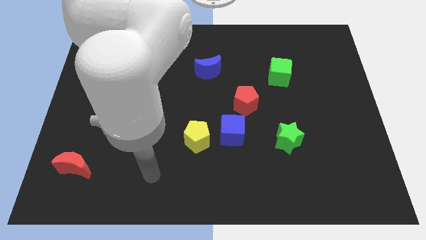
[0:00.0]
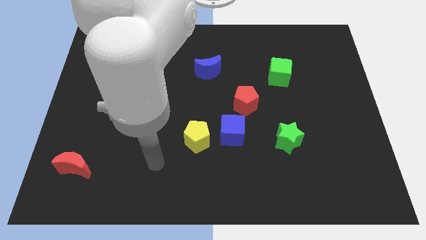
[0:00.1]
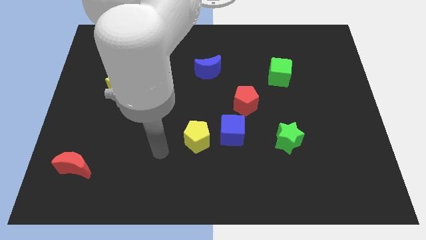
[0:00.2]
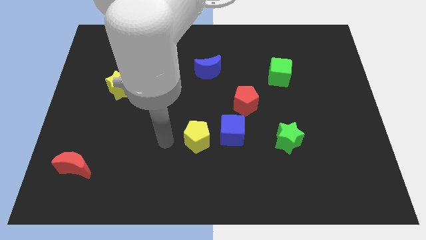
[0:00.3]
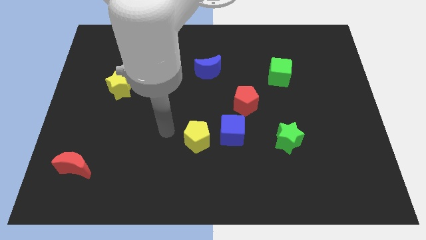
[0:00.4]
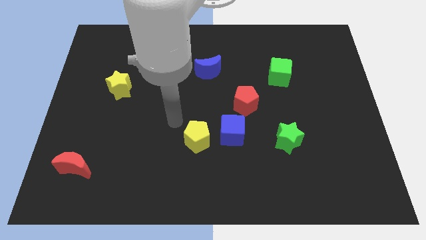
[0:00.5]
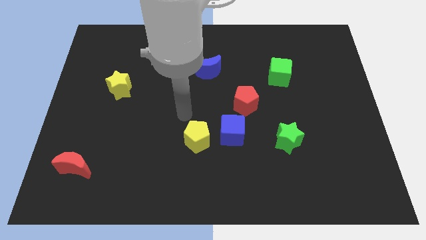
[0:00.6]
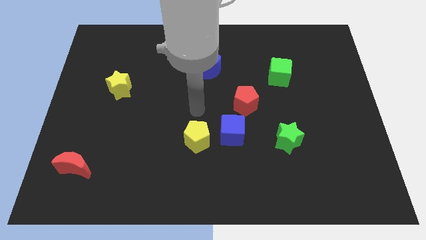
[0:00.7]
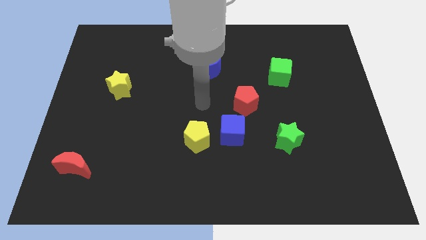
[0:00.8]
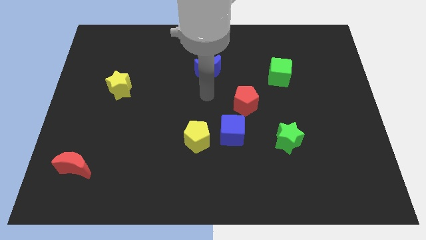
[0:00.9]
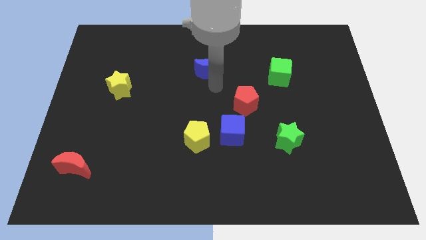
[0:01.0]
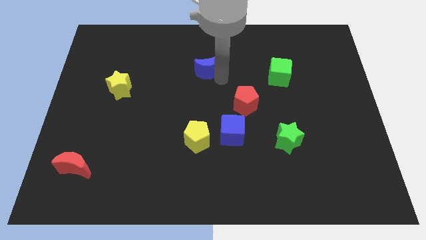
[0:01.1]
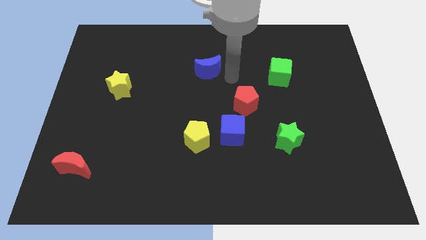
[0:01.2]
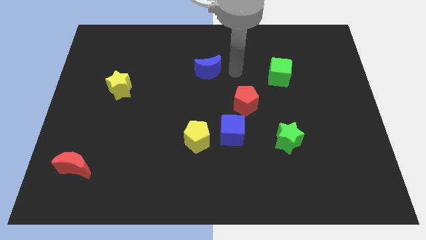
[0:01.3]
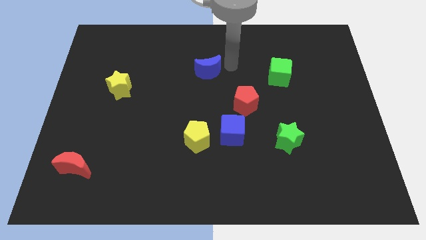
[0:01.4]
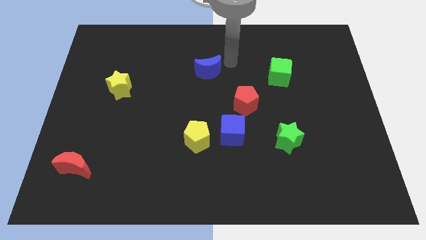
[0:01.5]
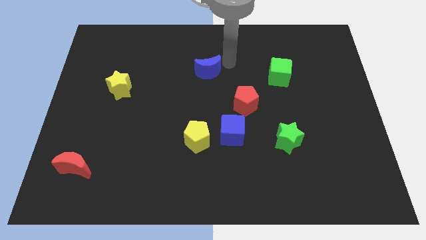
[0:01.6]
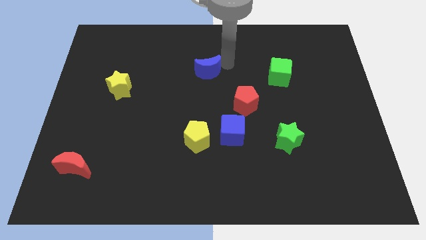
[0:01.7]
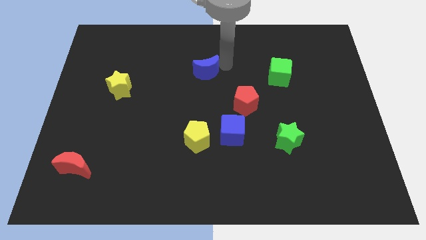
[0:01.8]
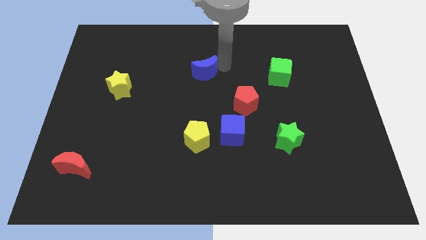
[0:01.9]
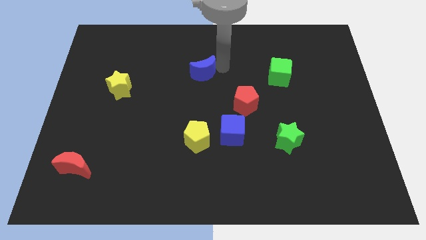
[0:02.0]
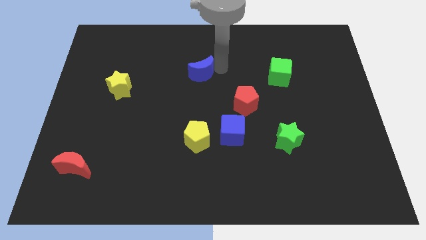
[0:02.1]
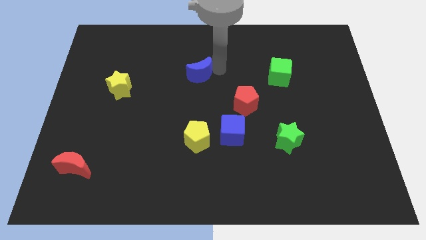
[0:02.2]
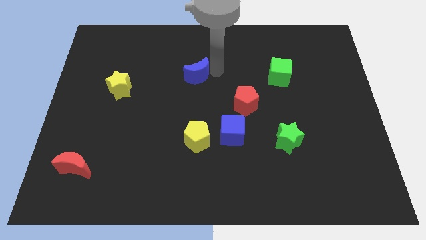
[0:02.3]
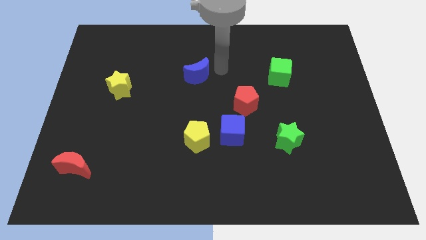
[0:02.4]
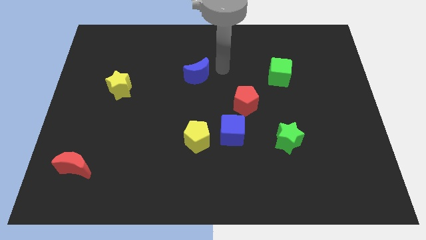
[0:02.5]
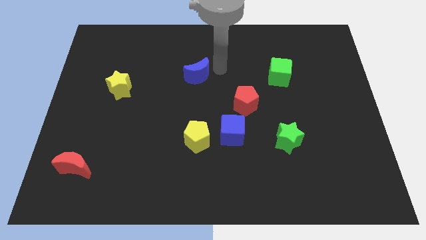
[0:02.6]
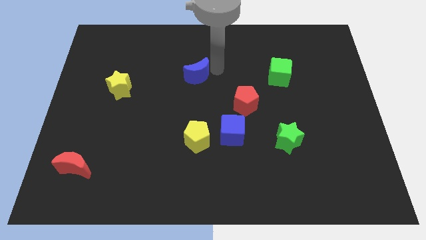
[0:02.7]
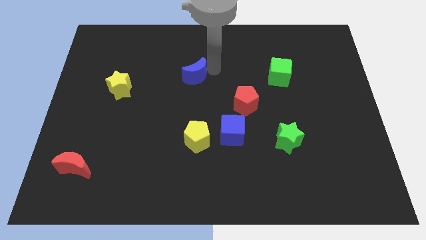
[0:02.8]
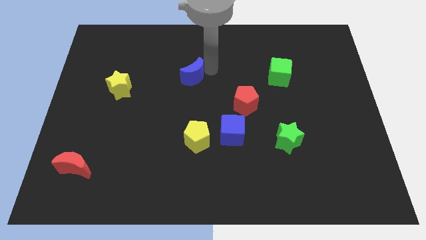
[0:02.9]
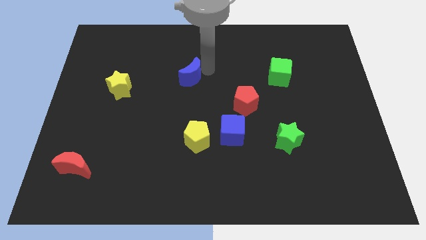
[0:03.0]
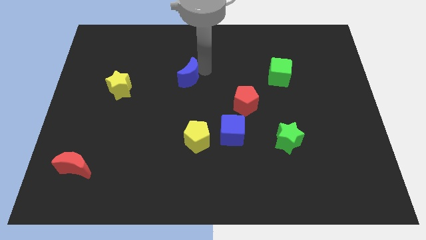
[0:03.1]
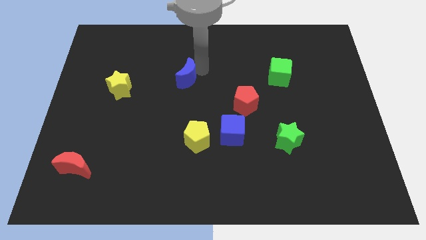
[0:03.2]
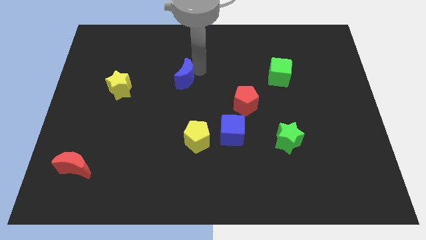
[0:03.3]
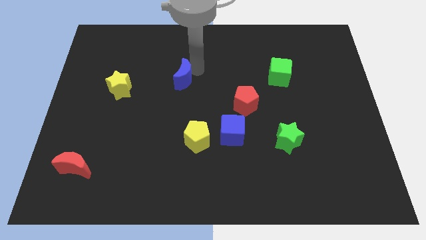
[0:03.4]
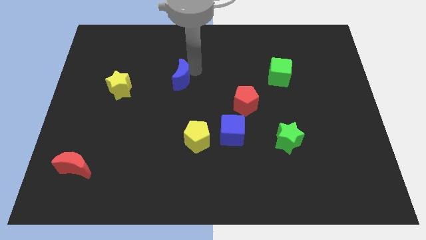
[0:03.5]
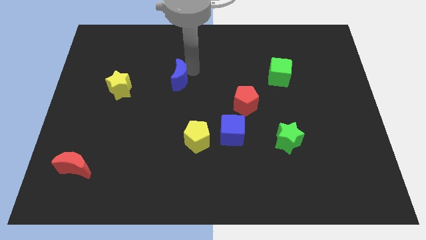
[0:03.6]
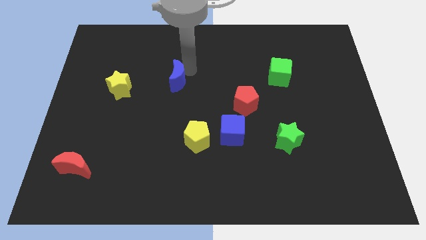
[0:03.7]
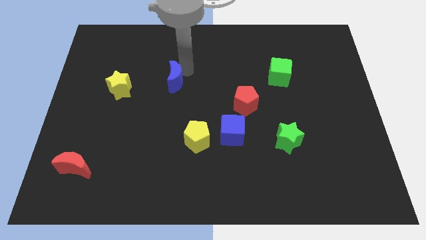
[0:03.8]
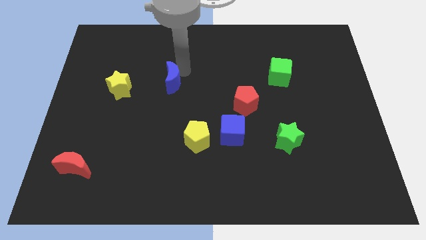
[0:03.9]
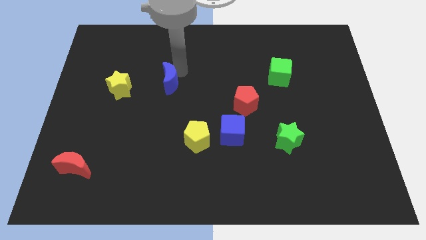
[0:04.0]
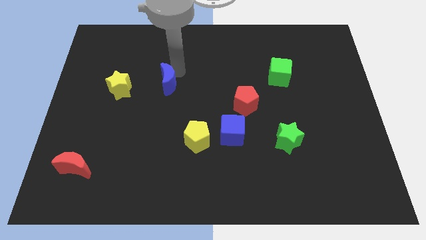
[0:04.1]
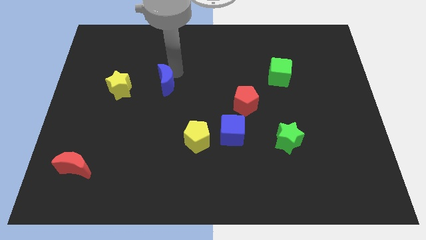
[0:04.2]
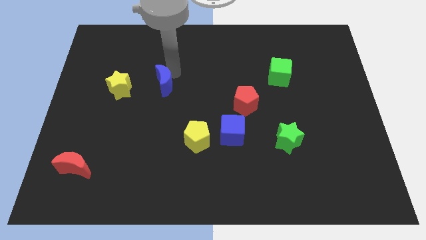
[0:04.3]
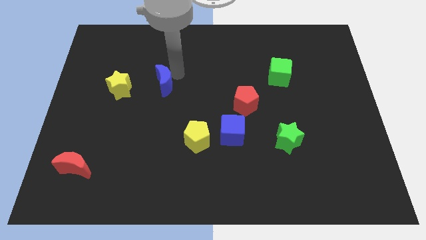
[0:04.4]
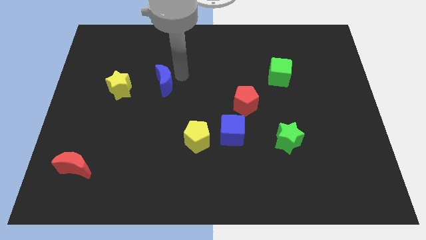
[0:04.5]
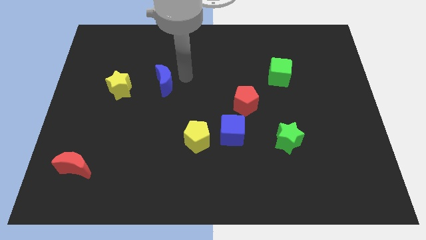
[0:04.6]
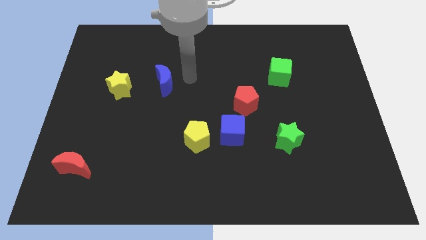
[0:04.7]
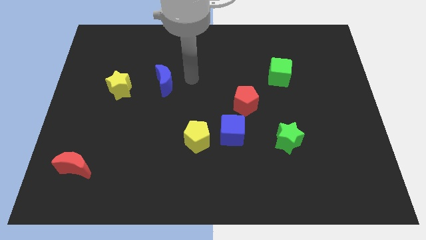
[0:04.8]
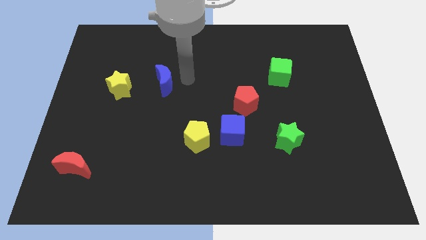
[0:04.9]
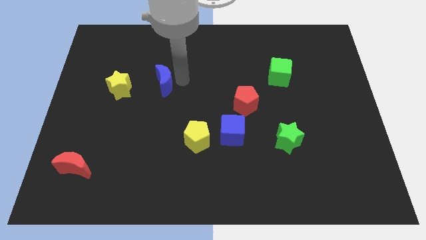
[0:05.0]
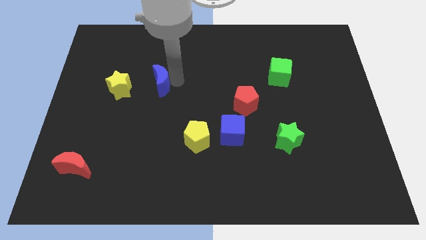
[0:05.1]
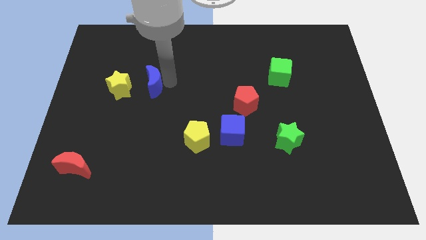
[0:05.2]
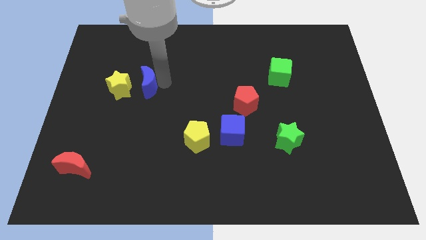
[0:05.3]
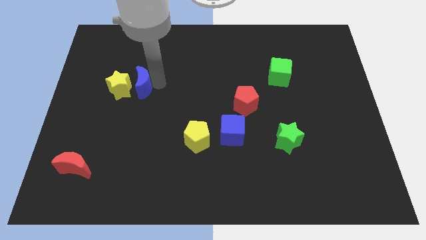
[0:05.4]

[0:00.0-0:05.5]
slide the blue moon to the yellow star

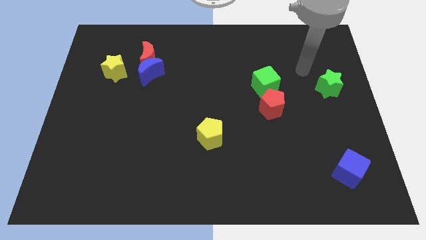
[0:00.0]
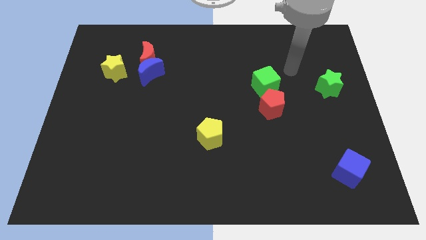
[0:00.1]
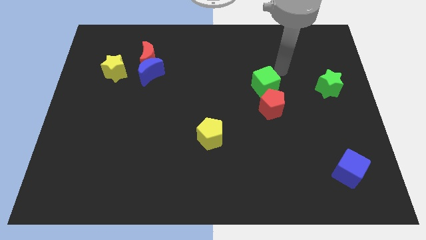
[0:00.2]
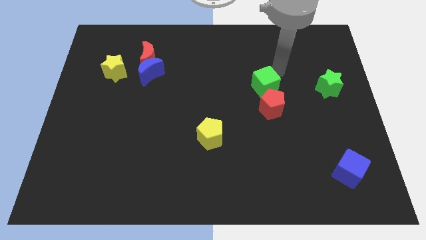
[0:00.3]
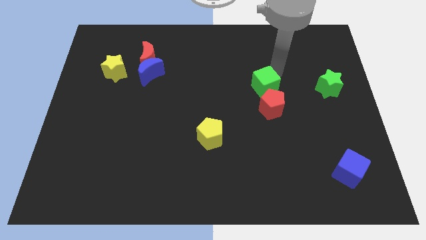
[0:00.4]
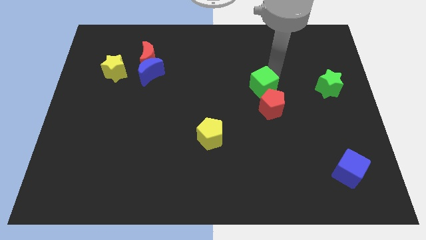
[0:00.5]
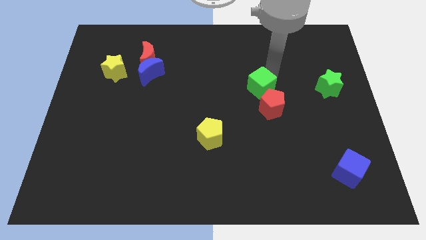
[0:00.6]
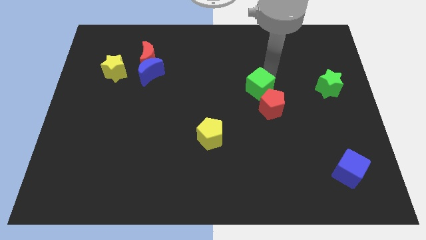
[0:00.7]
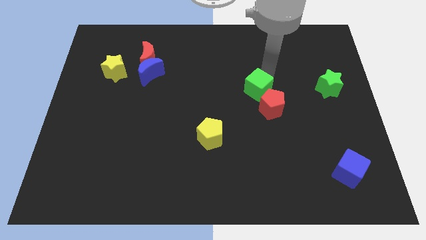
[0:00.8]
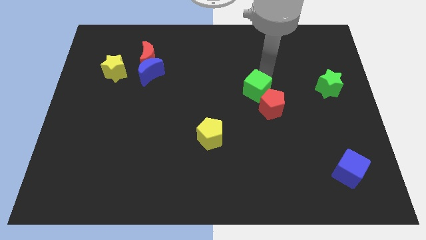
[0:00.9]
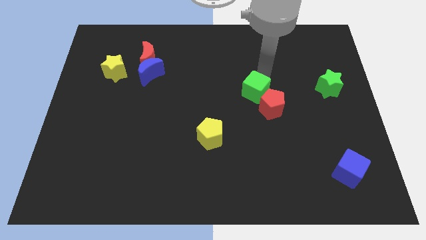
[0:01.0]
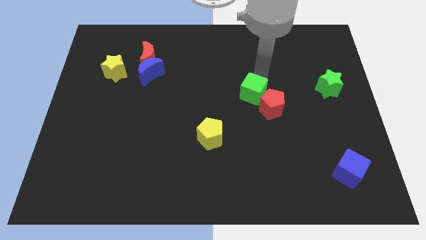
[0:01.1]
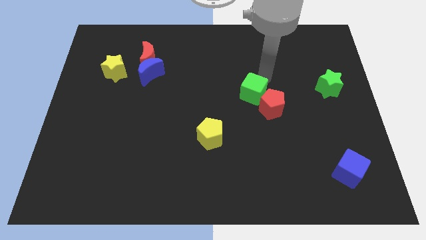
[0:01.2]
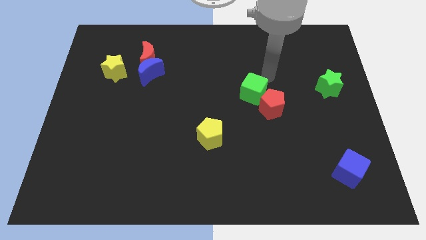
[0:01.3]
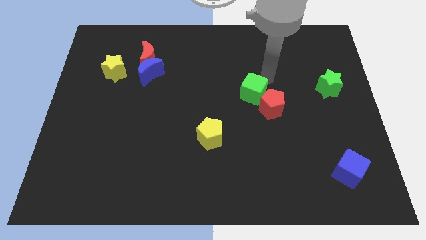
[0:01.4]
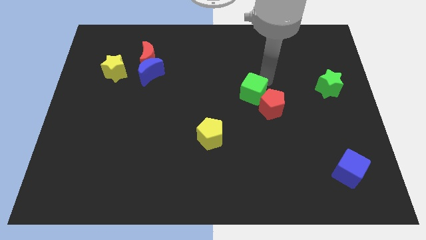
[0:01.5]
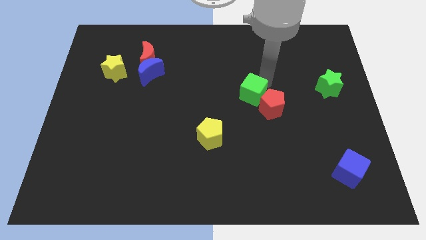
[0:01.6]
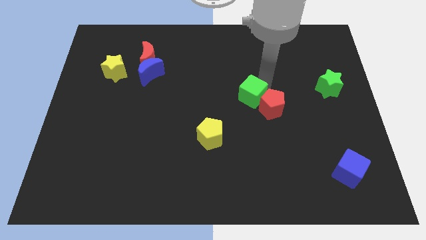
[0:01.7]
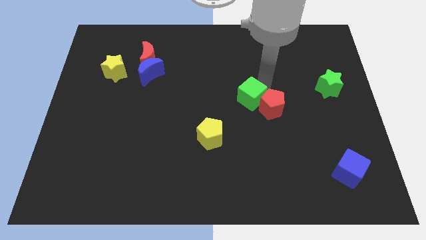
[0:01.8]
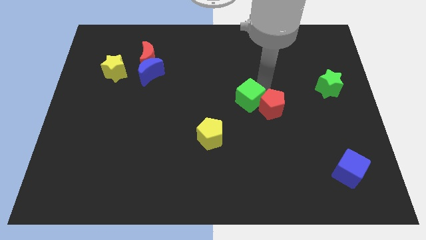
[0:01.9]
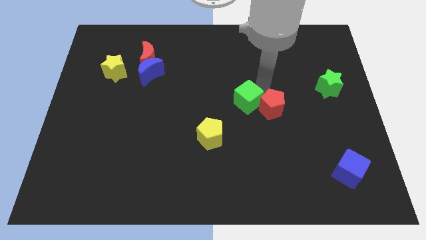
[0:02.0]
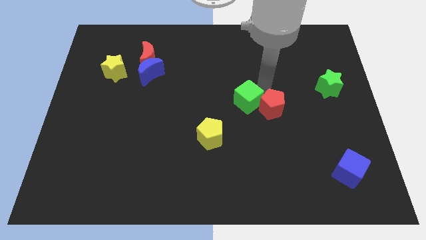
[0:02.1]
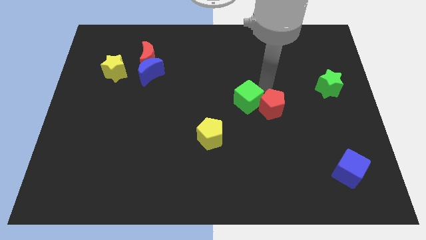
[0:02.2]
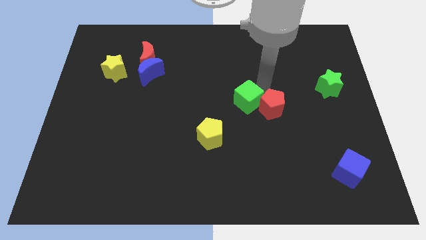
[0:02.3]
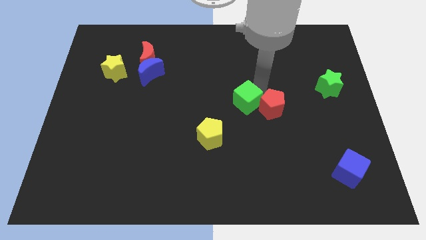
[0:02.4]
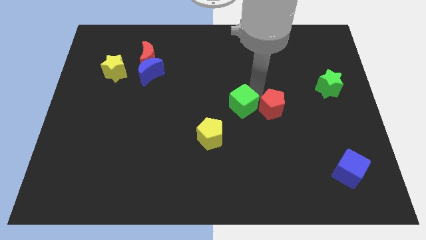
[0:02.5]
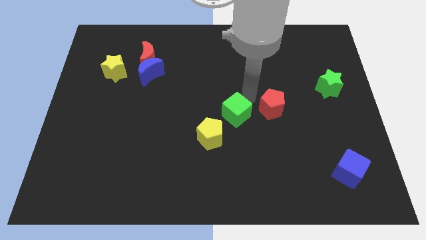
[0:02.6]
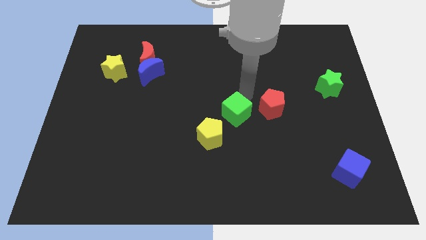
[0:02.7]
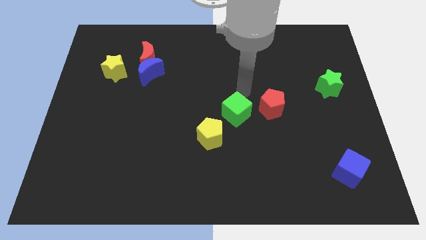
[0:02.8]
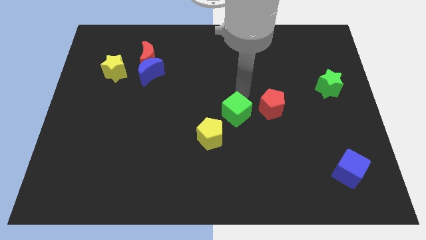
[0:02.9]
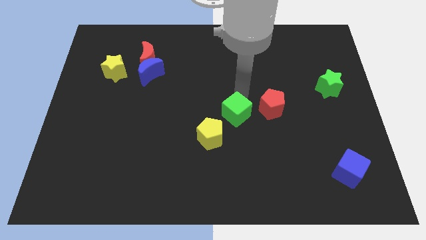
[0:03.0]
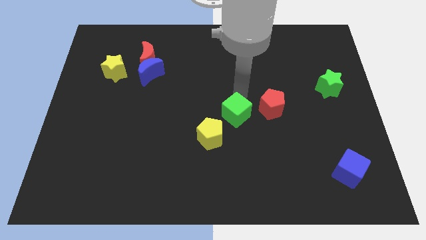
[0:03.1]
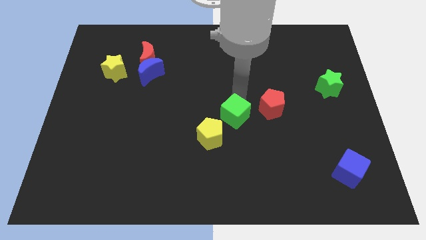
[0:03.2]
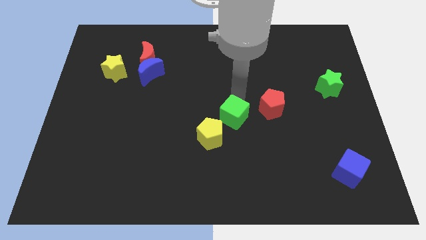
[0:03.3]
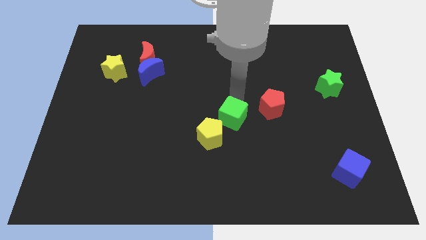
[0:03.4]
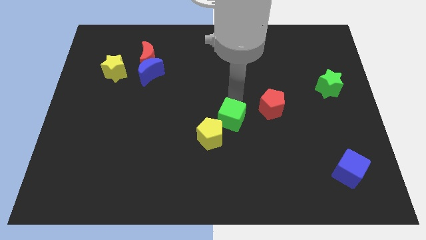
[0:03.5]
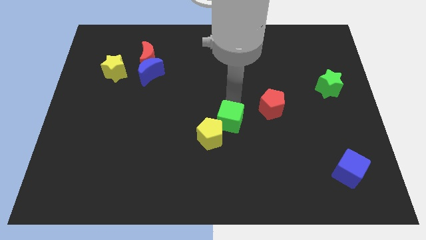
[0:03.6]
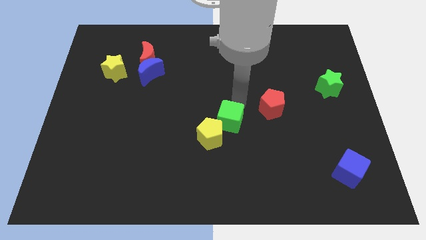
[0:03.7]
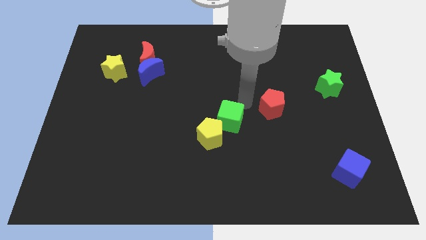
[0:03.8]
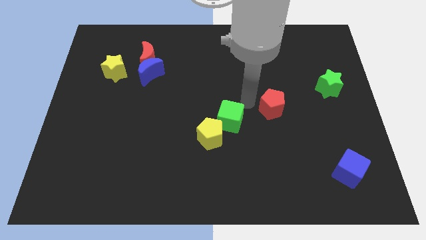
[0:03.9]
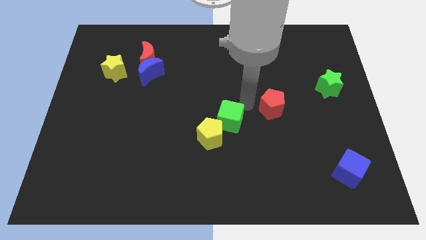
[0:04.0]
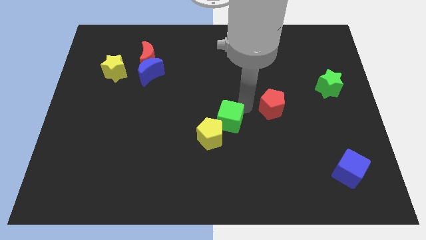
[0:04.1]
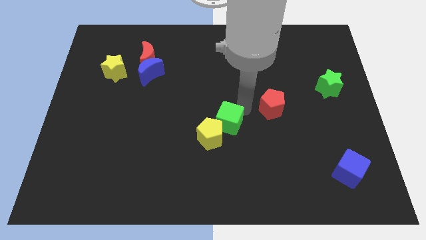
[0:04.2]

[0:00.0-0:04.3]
put the green cube next to the yellow pentagon
